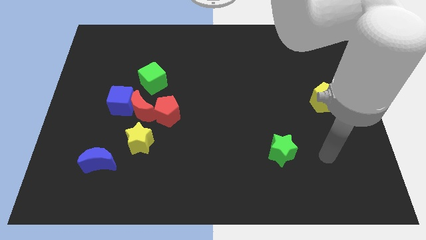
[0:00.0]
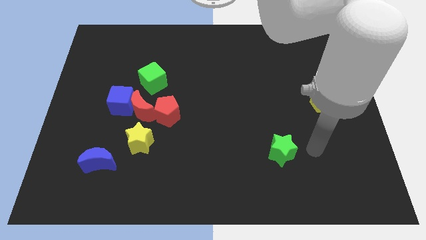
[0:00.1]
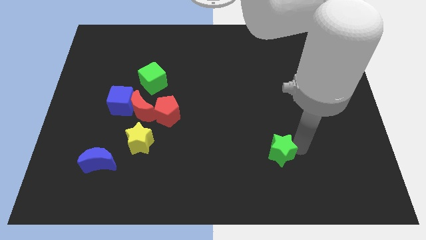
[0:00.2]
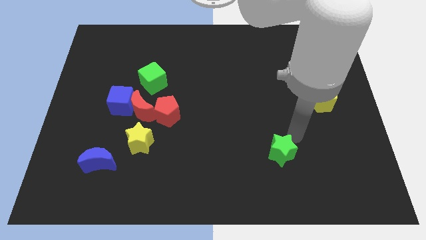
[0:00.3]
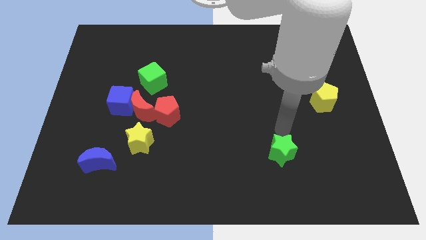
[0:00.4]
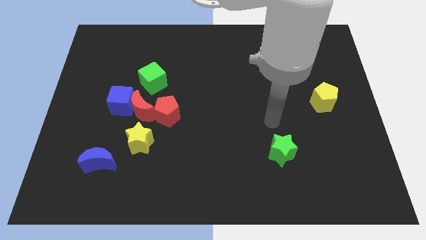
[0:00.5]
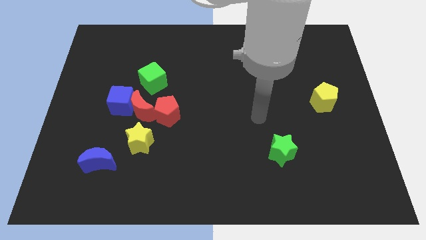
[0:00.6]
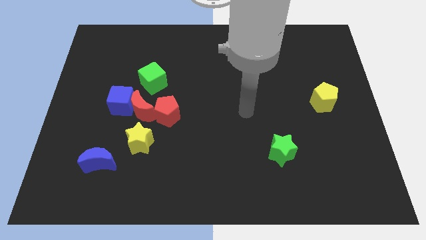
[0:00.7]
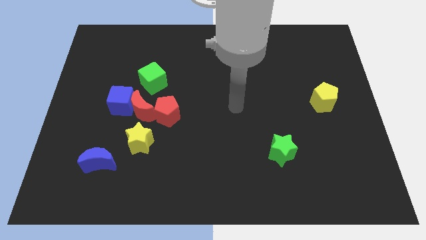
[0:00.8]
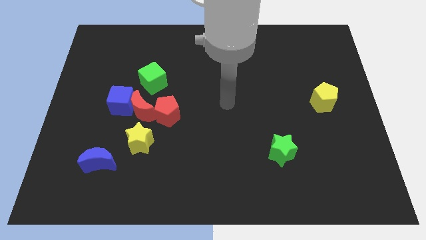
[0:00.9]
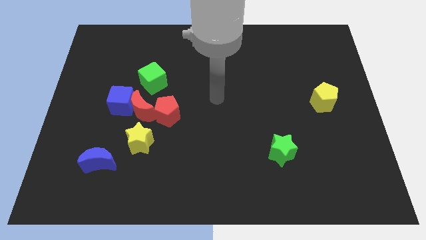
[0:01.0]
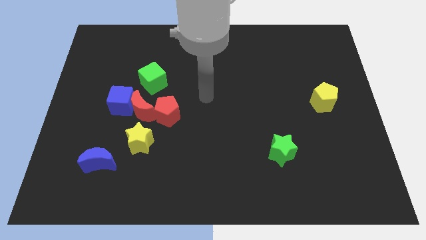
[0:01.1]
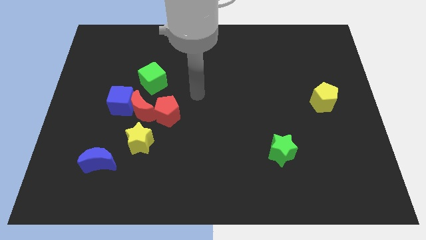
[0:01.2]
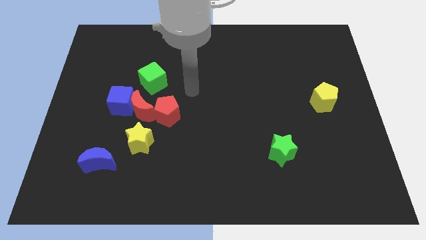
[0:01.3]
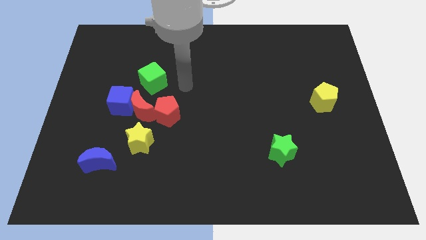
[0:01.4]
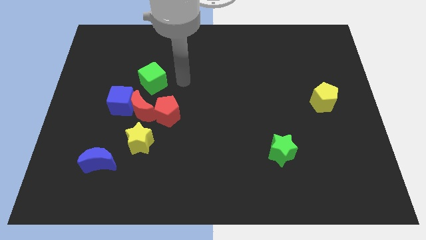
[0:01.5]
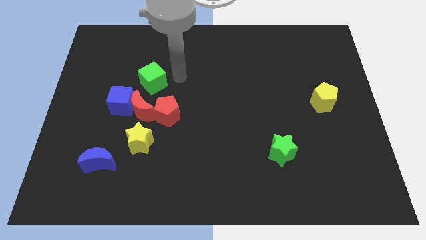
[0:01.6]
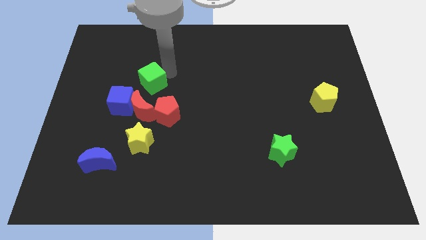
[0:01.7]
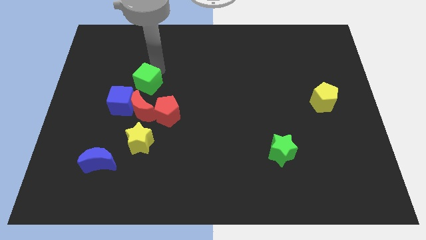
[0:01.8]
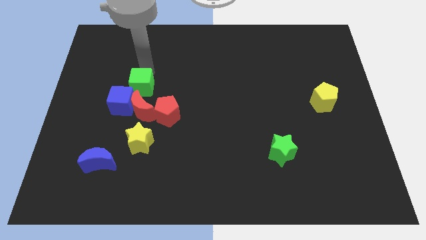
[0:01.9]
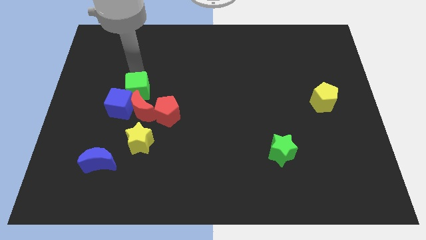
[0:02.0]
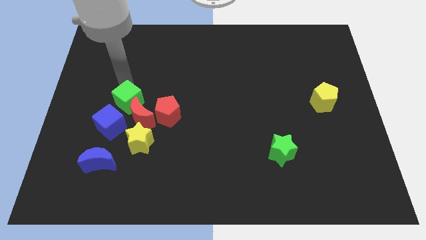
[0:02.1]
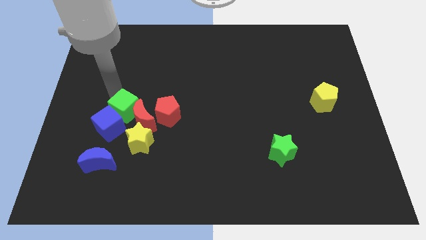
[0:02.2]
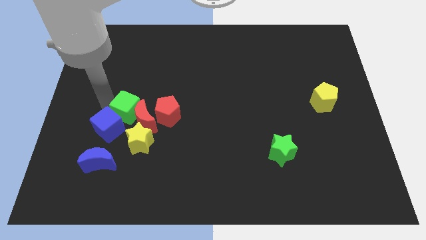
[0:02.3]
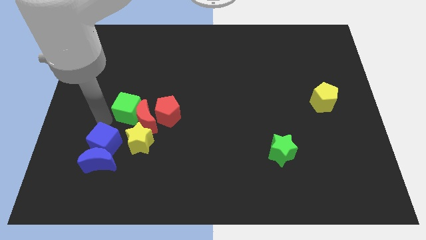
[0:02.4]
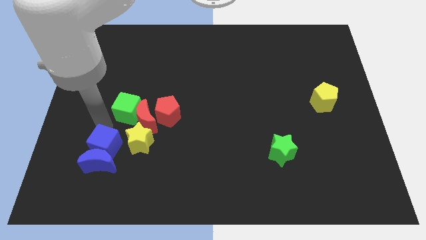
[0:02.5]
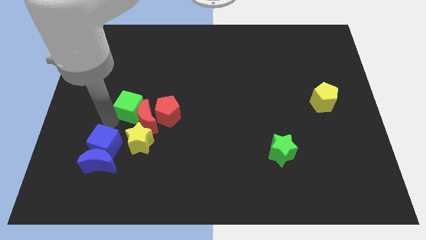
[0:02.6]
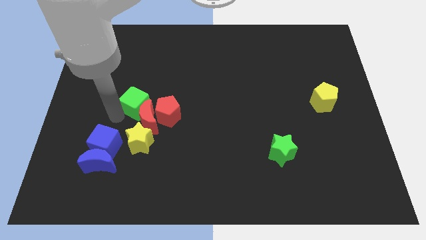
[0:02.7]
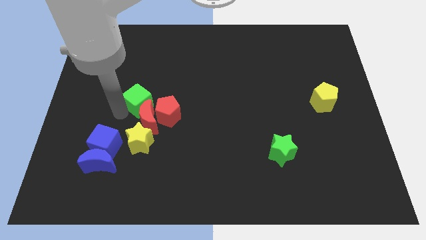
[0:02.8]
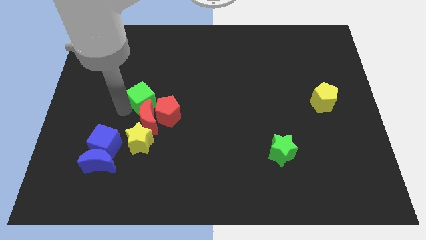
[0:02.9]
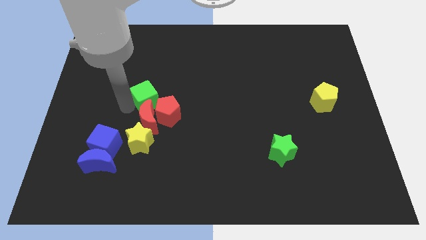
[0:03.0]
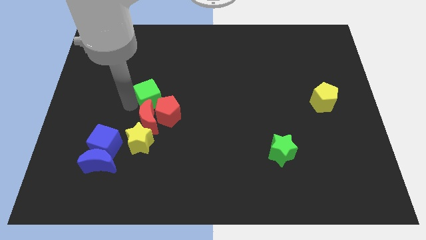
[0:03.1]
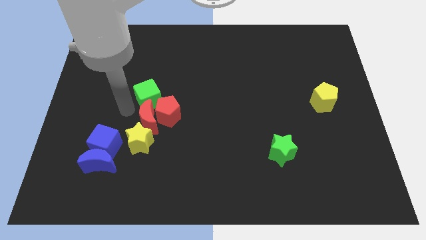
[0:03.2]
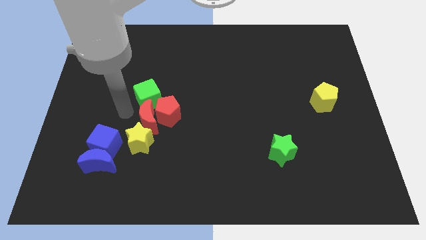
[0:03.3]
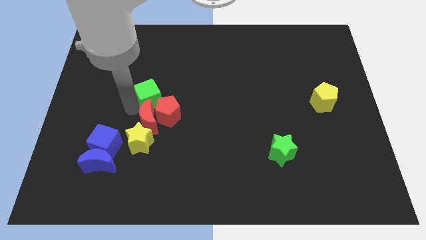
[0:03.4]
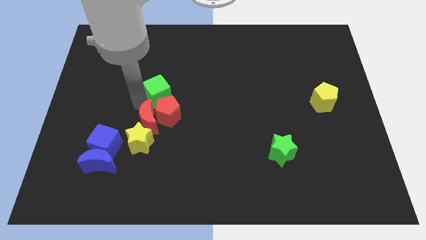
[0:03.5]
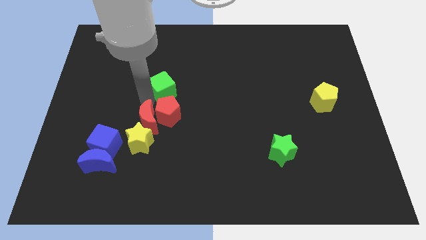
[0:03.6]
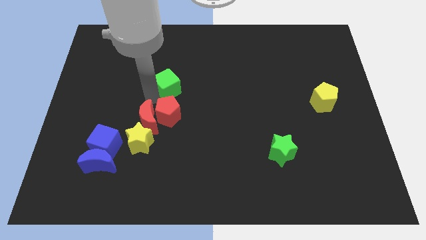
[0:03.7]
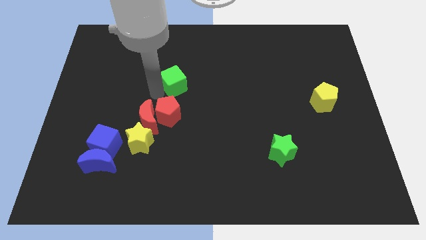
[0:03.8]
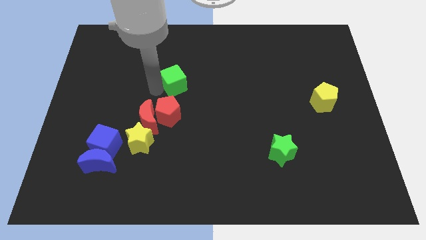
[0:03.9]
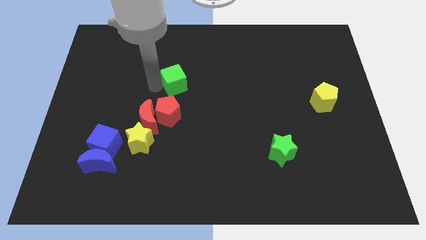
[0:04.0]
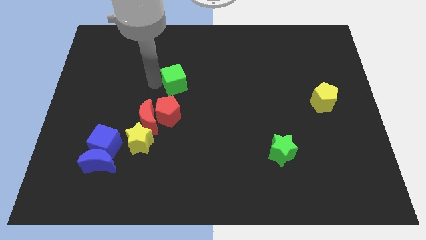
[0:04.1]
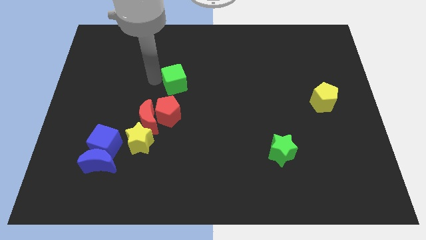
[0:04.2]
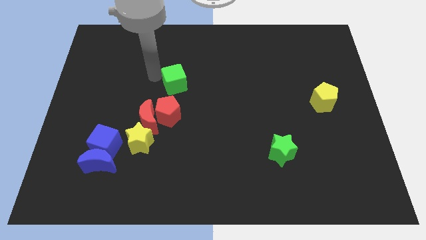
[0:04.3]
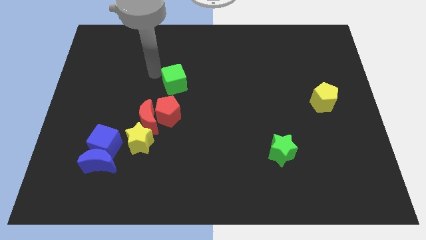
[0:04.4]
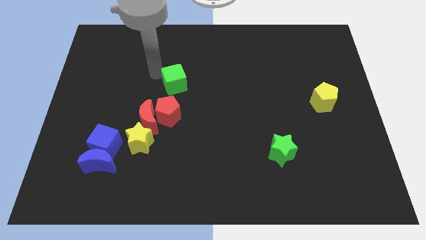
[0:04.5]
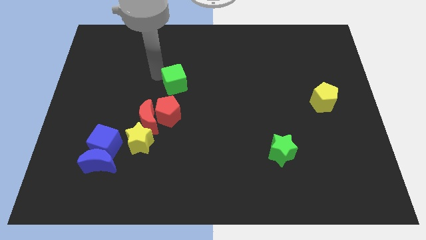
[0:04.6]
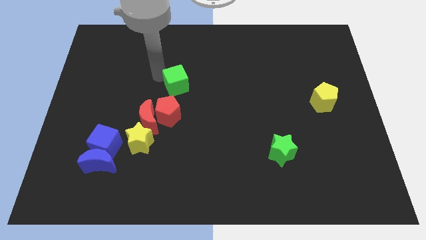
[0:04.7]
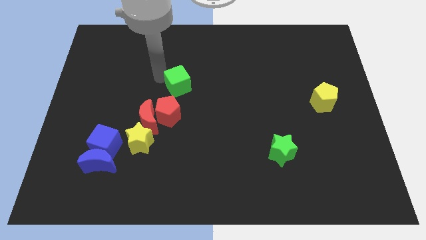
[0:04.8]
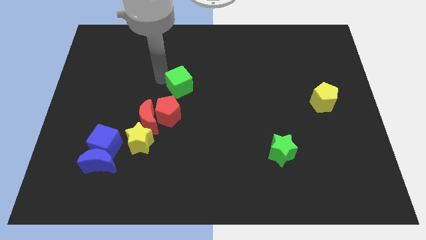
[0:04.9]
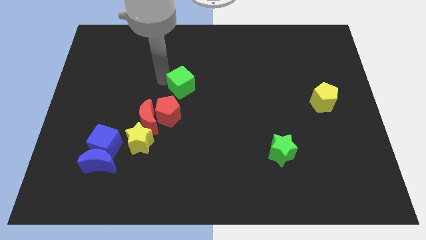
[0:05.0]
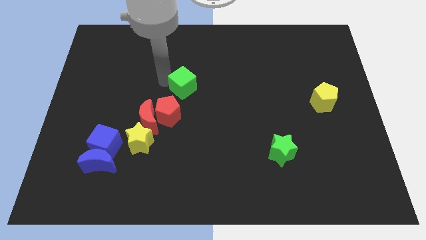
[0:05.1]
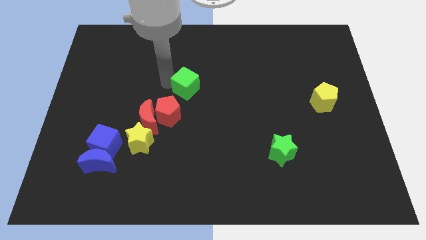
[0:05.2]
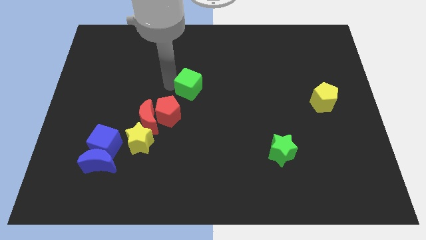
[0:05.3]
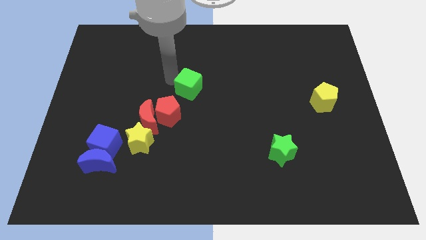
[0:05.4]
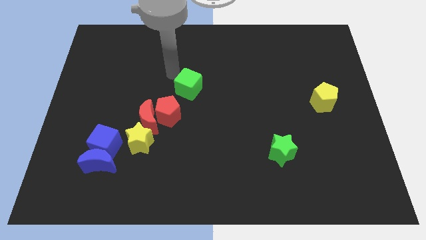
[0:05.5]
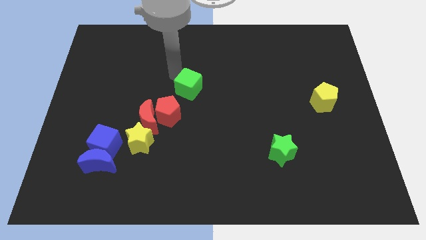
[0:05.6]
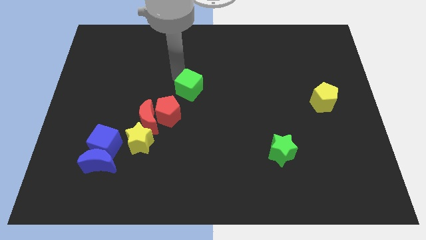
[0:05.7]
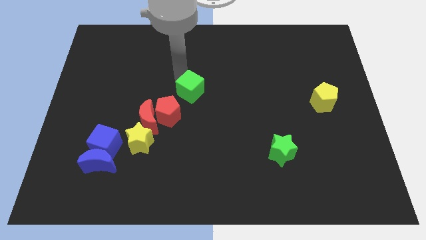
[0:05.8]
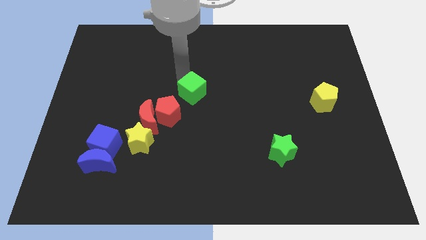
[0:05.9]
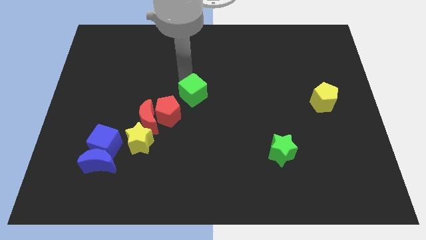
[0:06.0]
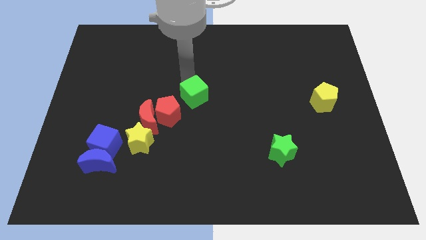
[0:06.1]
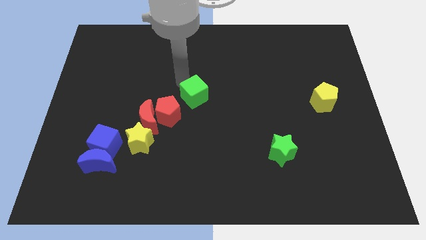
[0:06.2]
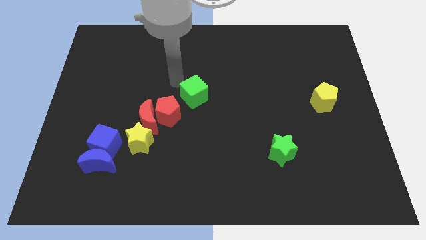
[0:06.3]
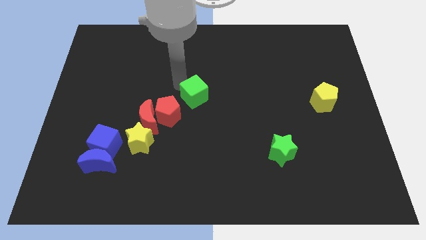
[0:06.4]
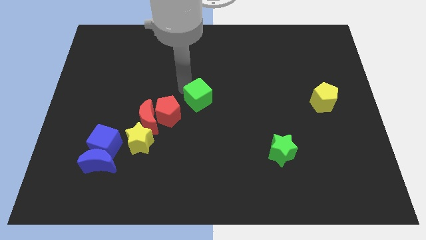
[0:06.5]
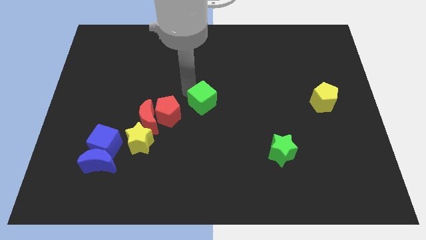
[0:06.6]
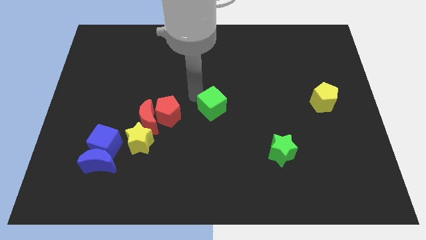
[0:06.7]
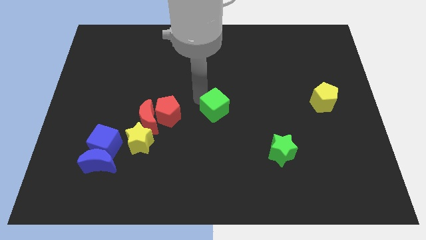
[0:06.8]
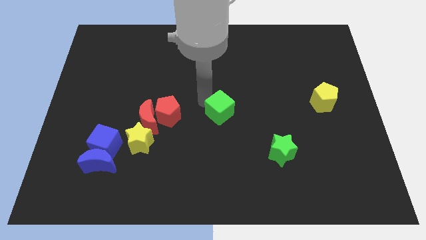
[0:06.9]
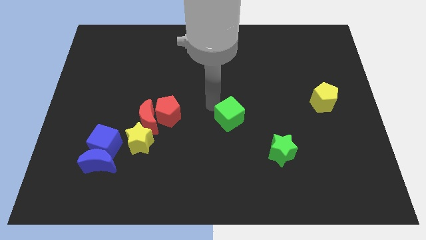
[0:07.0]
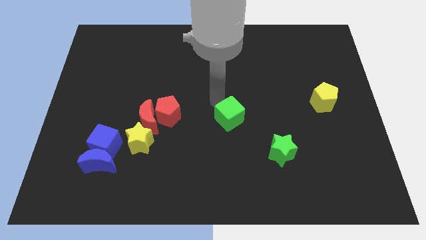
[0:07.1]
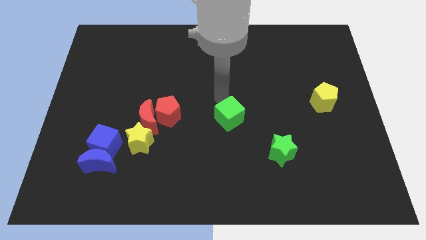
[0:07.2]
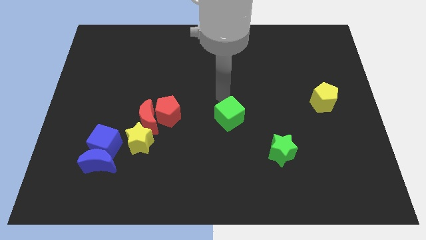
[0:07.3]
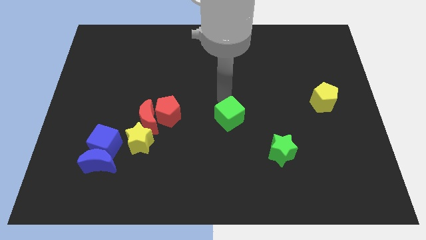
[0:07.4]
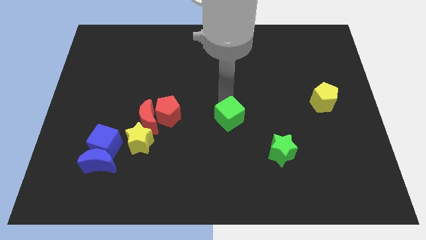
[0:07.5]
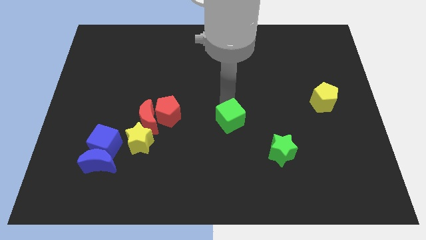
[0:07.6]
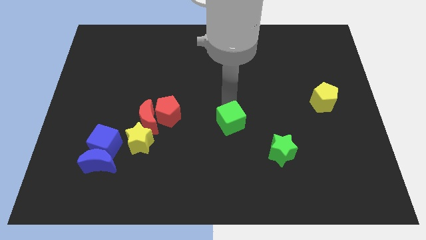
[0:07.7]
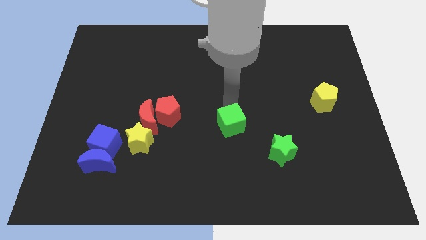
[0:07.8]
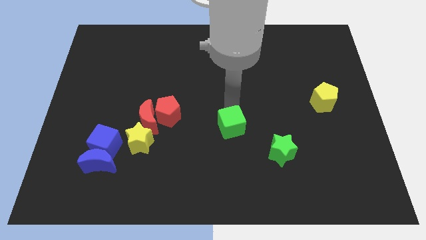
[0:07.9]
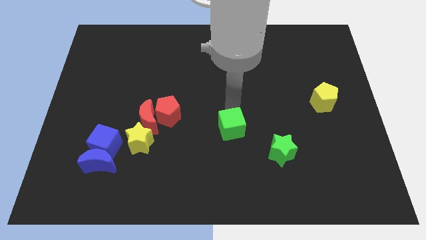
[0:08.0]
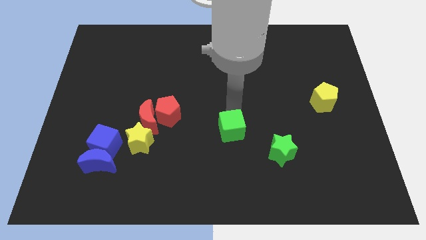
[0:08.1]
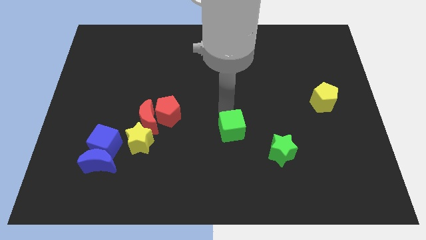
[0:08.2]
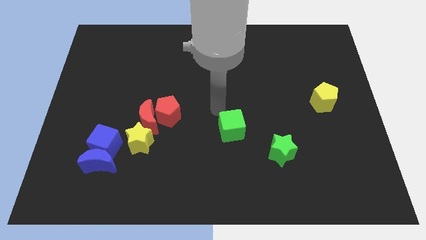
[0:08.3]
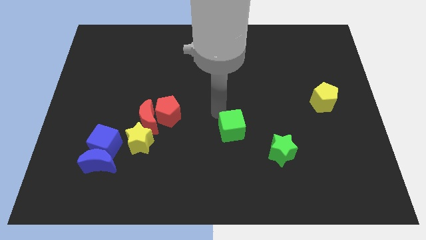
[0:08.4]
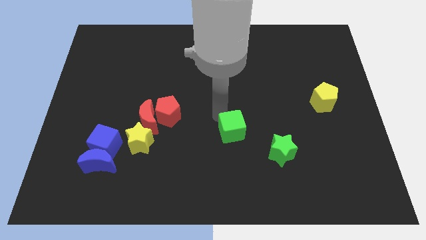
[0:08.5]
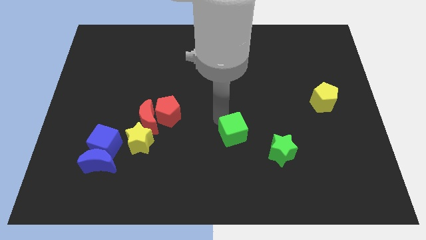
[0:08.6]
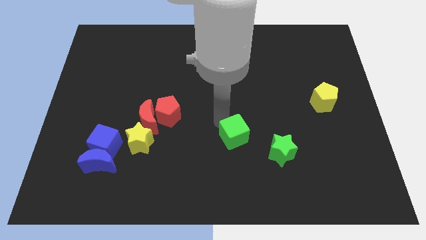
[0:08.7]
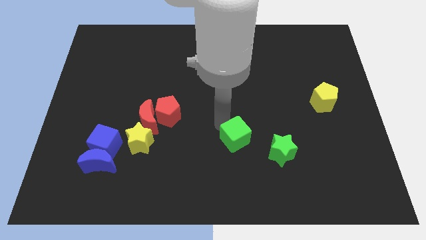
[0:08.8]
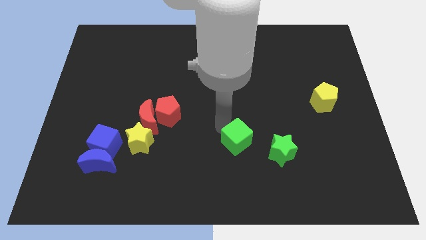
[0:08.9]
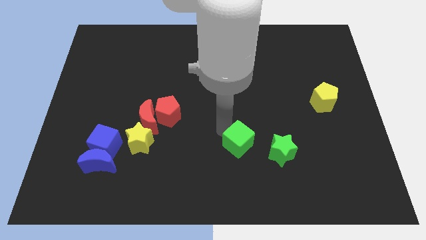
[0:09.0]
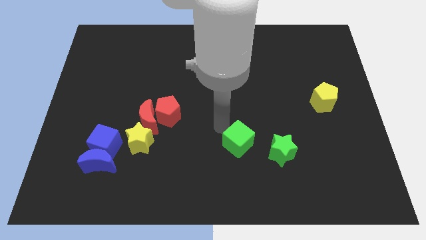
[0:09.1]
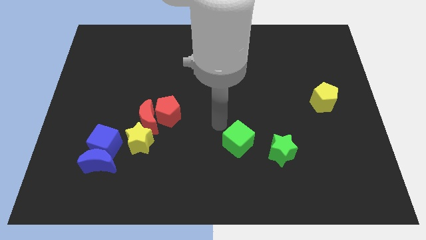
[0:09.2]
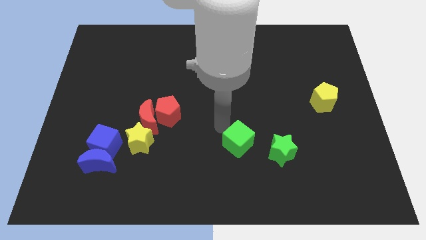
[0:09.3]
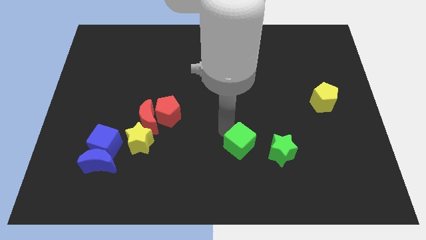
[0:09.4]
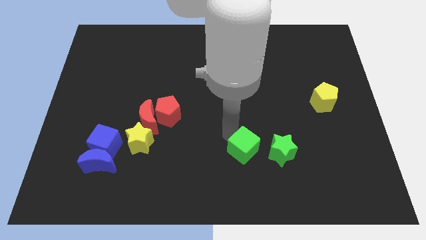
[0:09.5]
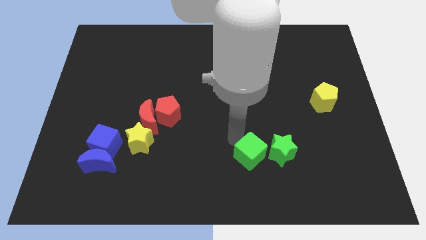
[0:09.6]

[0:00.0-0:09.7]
slide the green cube diagonally down and to the left of the green star
